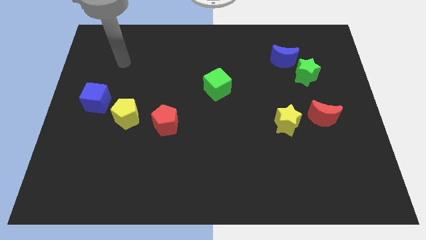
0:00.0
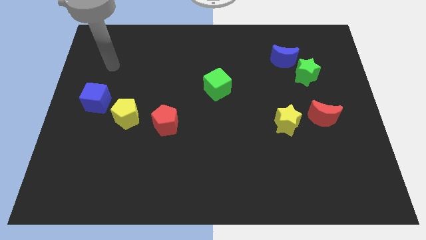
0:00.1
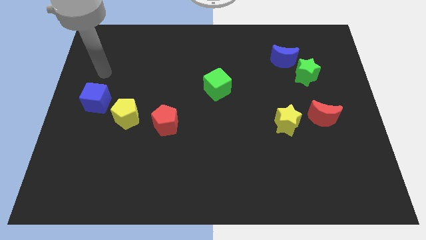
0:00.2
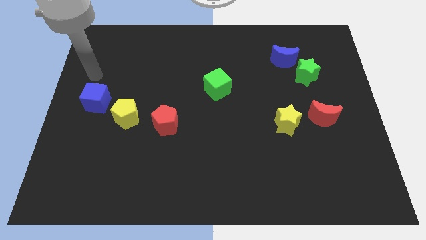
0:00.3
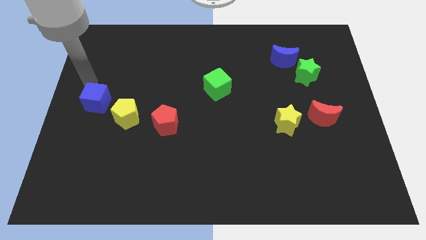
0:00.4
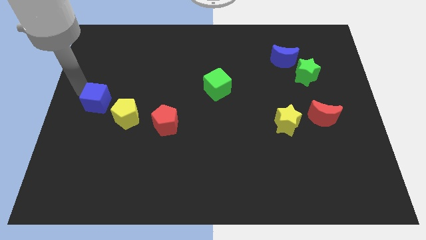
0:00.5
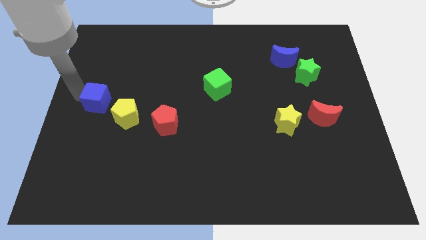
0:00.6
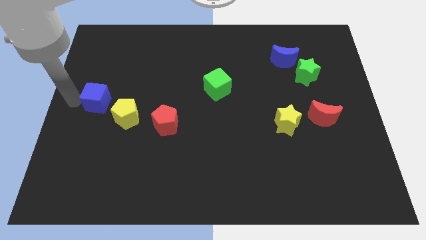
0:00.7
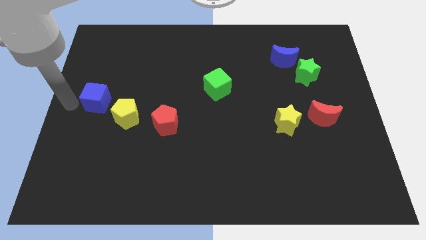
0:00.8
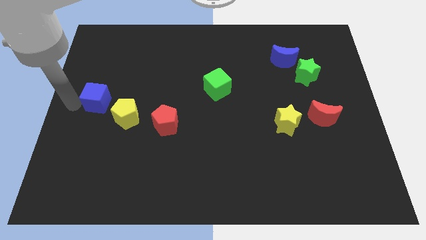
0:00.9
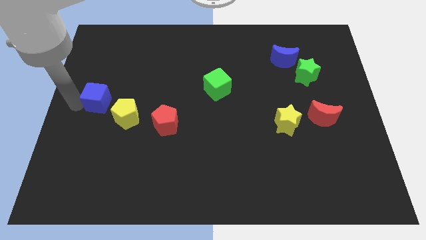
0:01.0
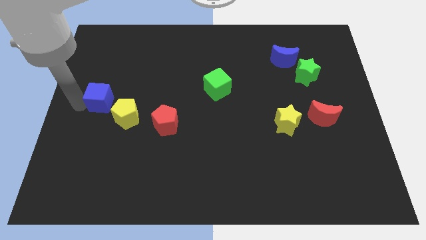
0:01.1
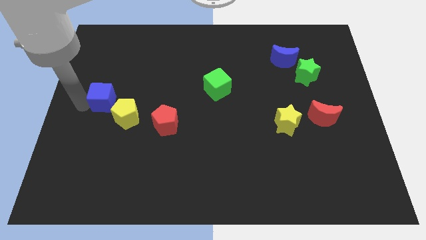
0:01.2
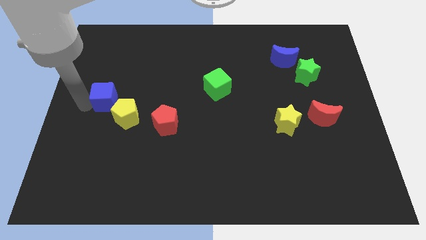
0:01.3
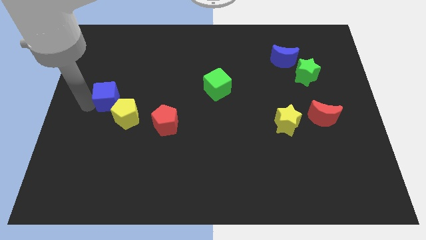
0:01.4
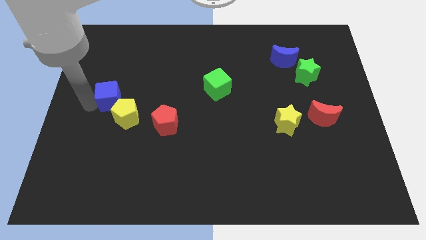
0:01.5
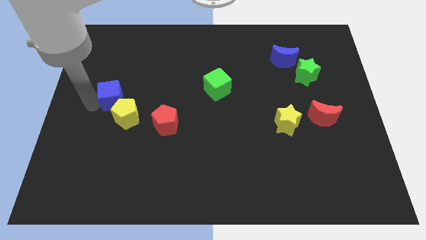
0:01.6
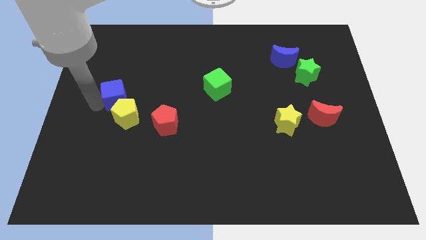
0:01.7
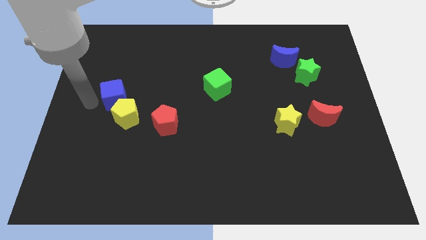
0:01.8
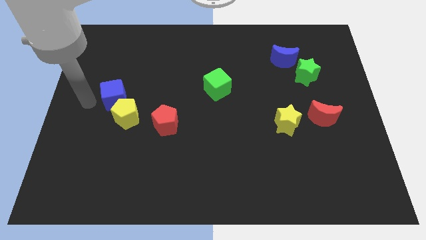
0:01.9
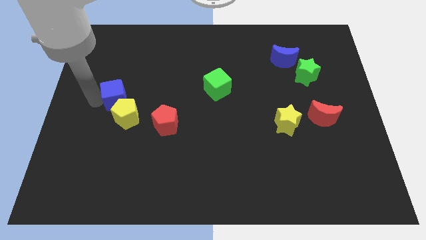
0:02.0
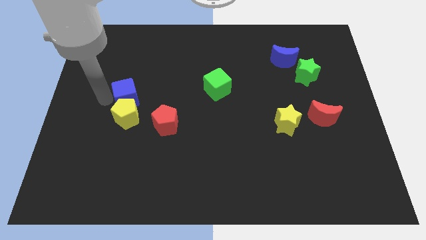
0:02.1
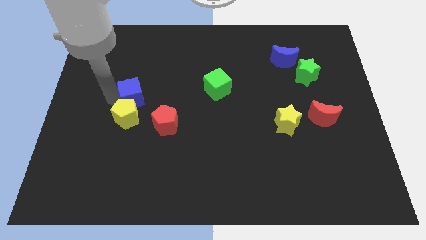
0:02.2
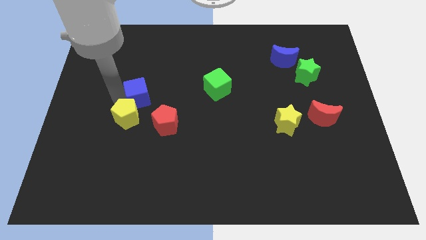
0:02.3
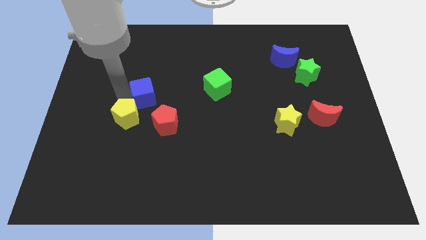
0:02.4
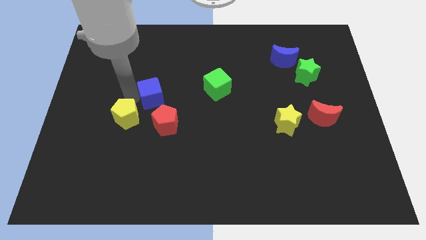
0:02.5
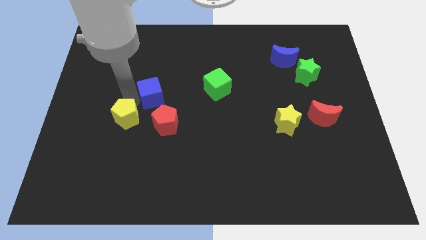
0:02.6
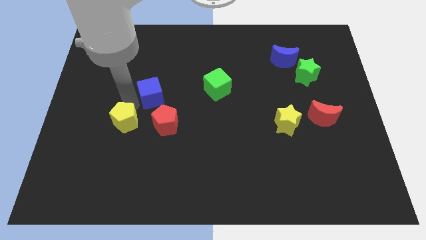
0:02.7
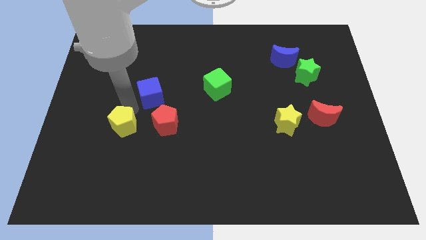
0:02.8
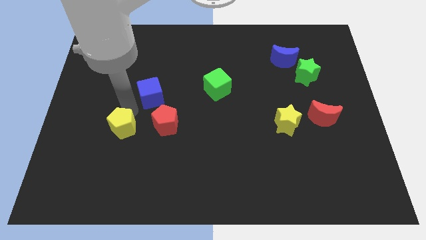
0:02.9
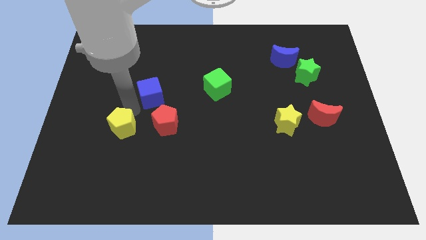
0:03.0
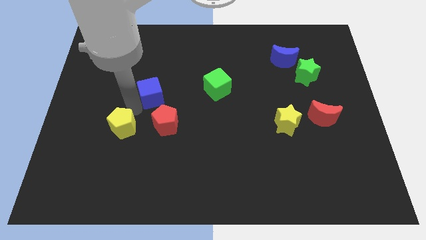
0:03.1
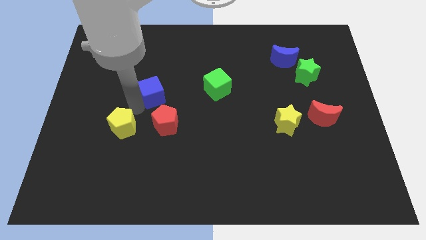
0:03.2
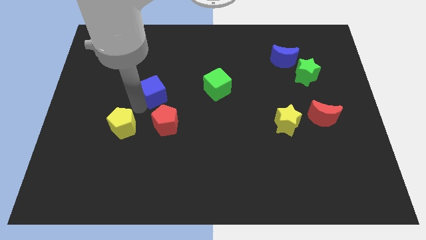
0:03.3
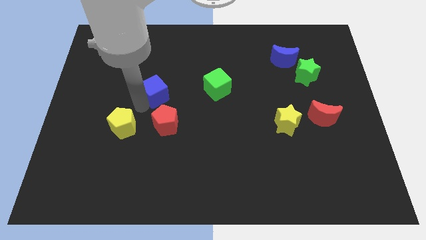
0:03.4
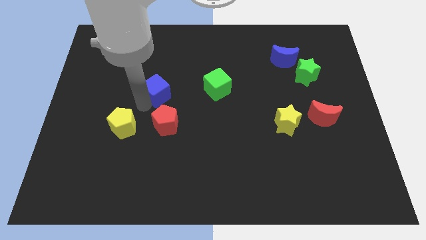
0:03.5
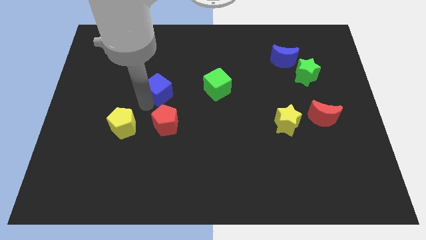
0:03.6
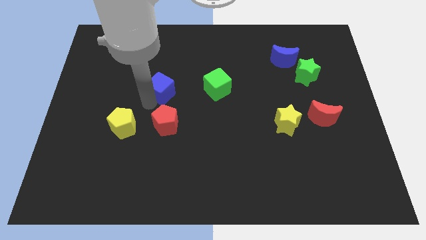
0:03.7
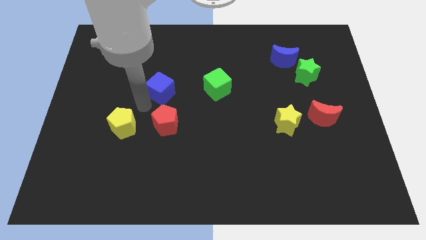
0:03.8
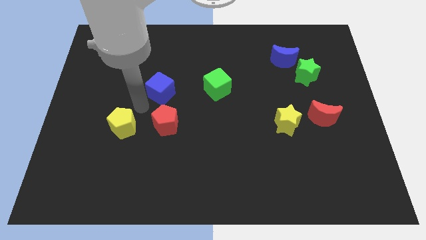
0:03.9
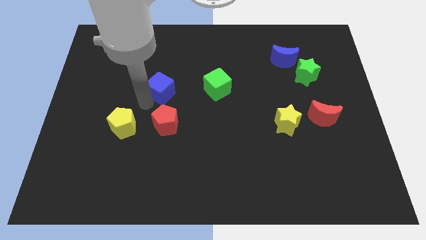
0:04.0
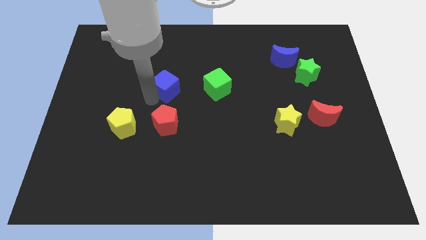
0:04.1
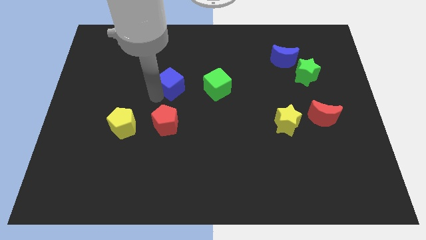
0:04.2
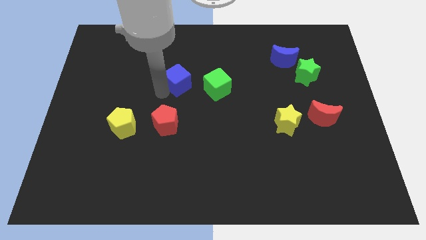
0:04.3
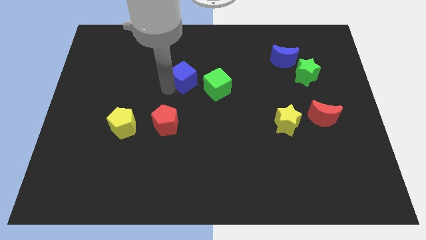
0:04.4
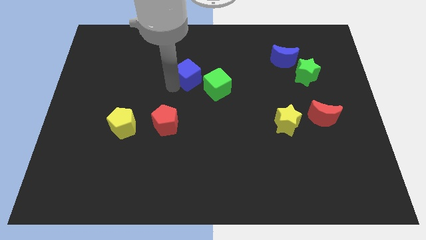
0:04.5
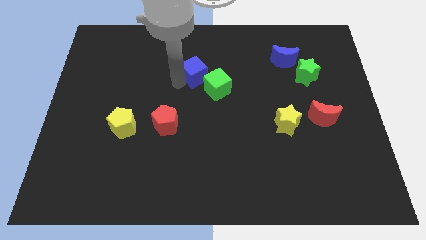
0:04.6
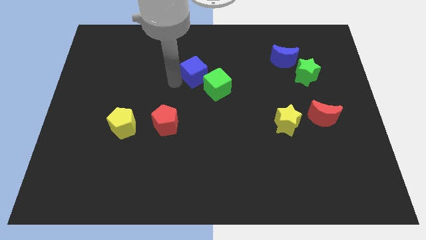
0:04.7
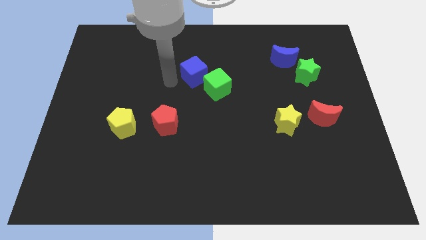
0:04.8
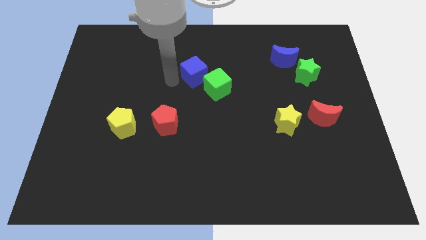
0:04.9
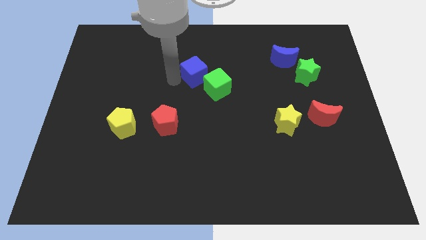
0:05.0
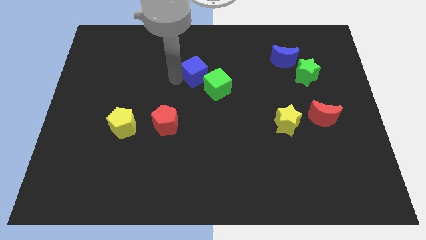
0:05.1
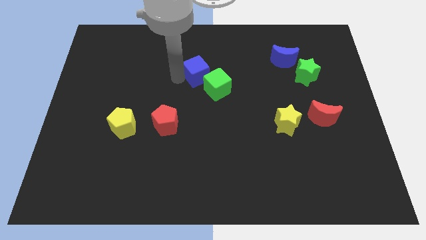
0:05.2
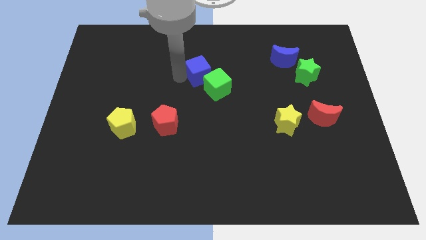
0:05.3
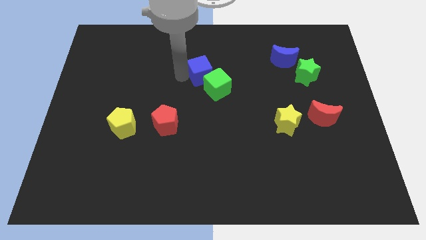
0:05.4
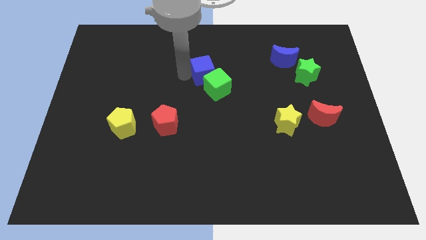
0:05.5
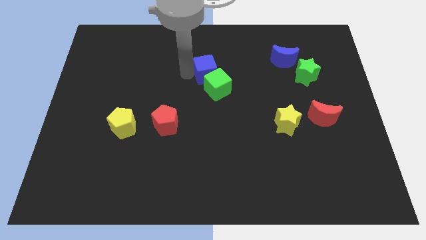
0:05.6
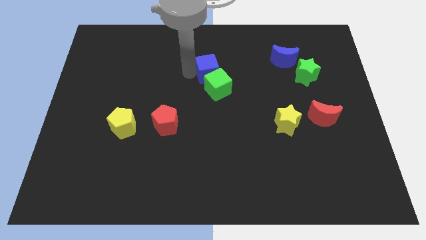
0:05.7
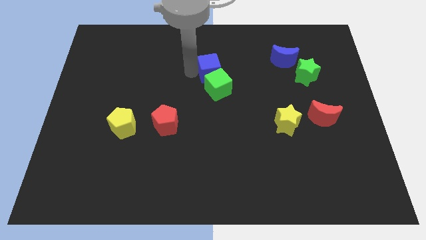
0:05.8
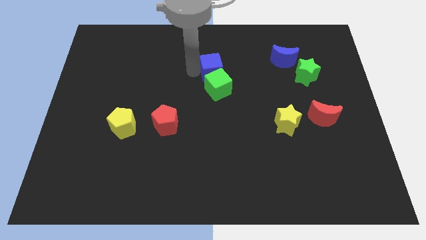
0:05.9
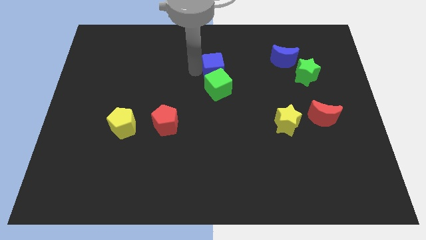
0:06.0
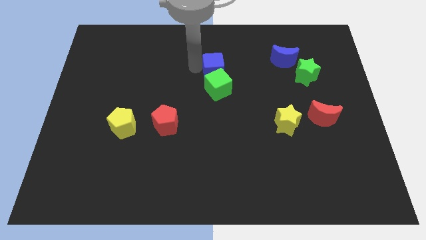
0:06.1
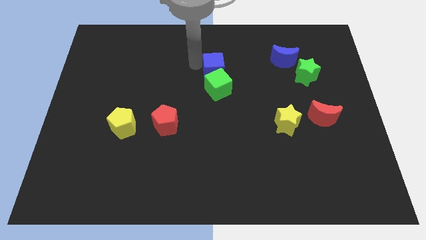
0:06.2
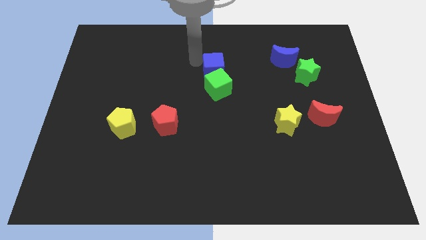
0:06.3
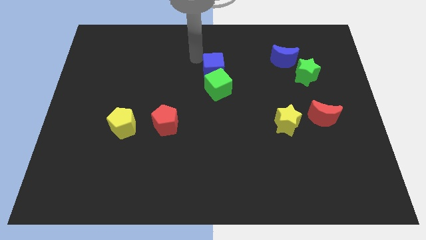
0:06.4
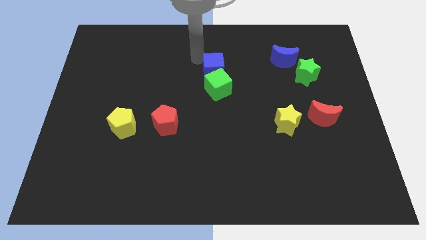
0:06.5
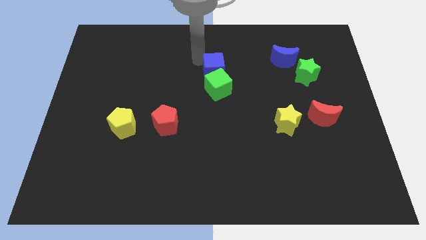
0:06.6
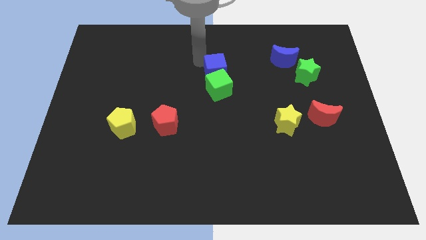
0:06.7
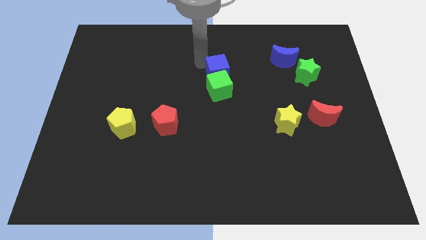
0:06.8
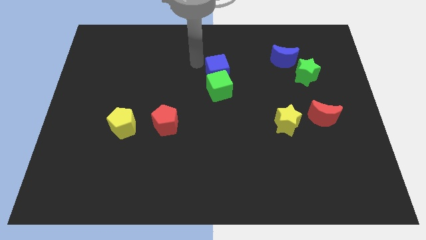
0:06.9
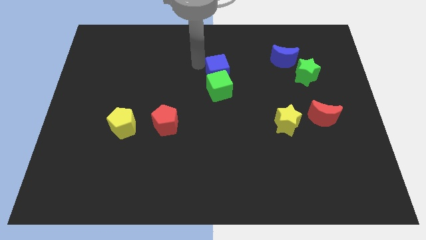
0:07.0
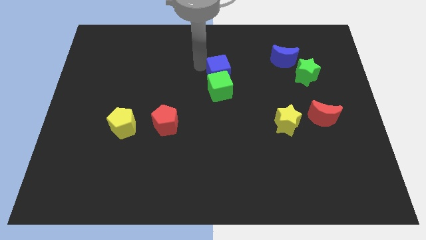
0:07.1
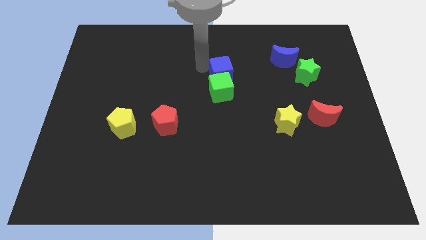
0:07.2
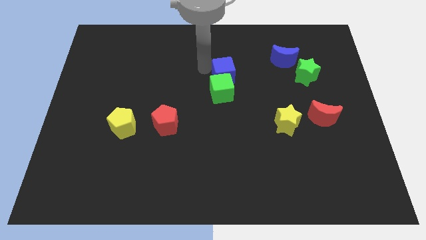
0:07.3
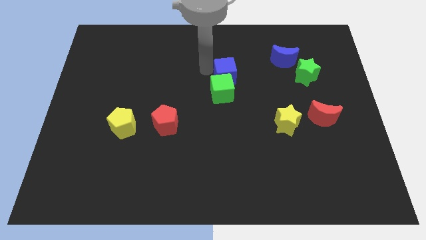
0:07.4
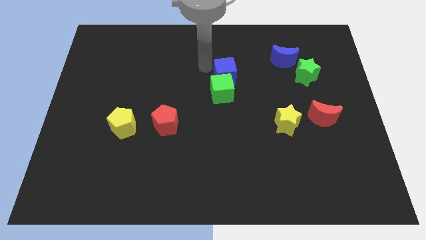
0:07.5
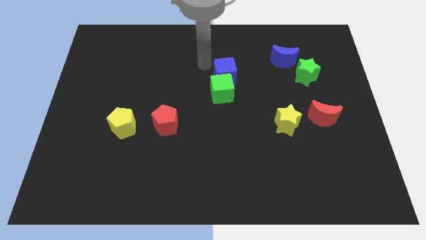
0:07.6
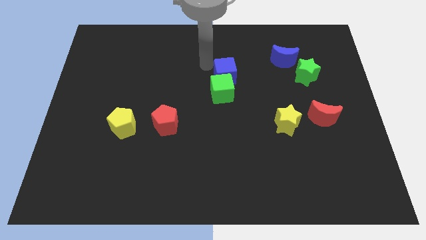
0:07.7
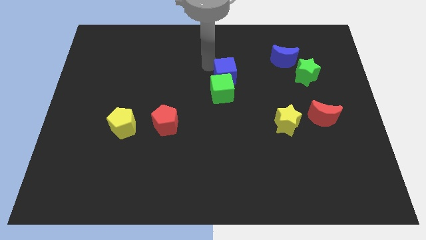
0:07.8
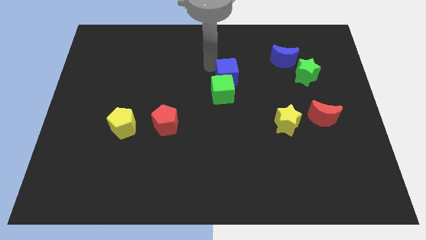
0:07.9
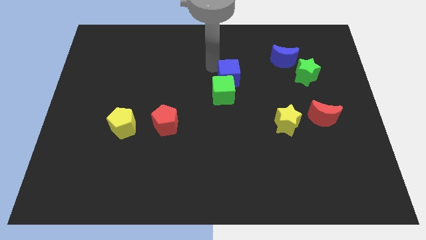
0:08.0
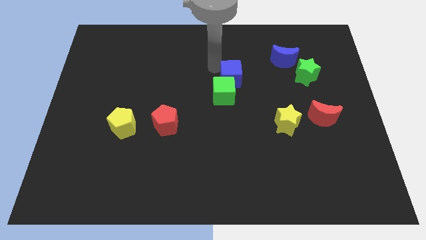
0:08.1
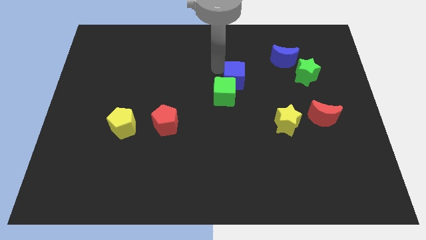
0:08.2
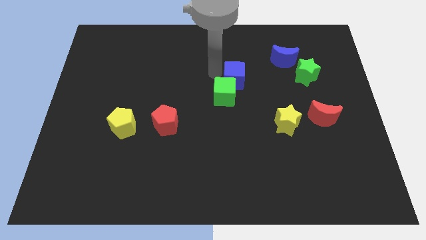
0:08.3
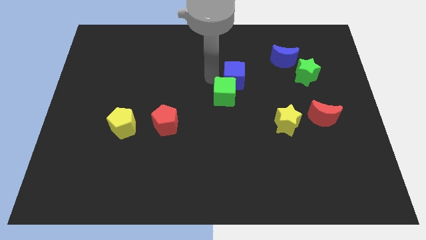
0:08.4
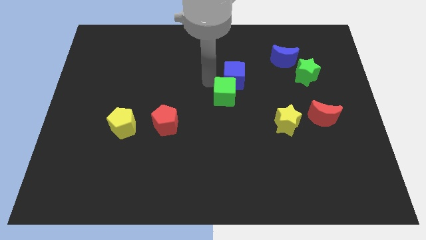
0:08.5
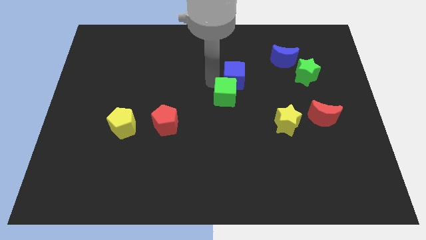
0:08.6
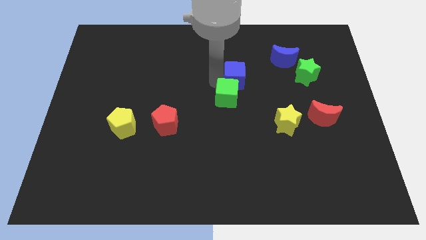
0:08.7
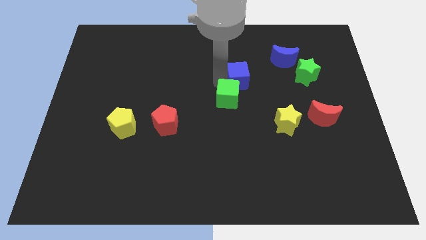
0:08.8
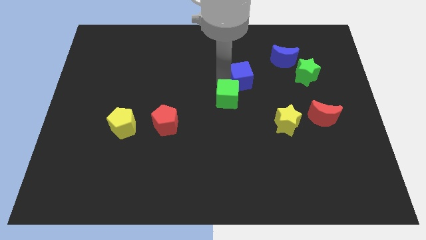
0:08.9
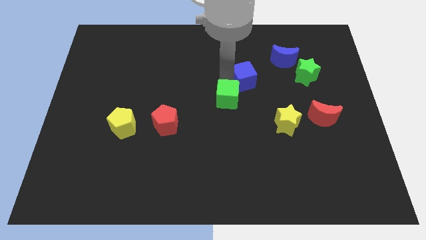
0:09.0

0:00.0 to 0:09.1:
push the blue cube to the left of the green star
